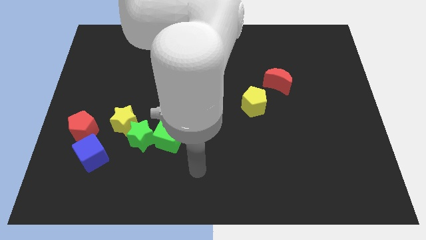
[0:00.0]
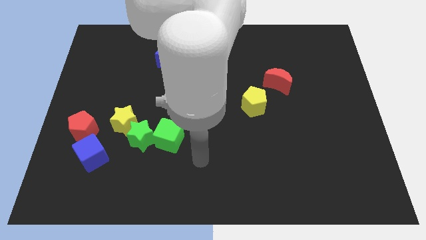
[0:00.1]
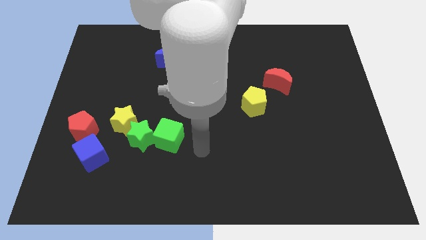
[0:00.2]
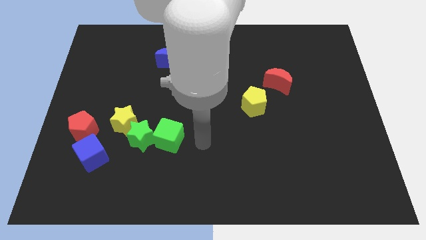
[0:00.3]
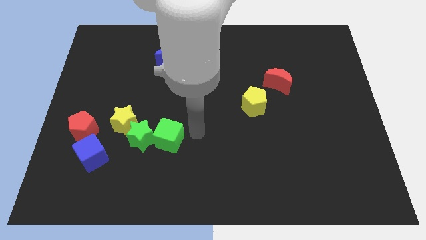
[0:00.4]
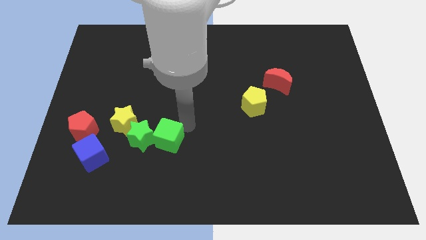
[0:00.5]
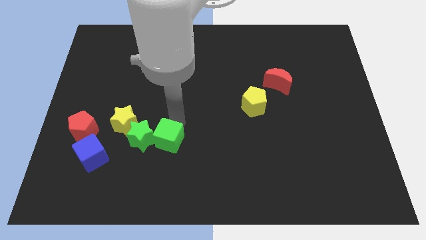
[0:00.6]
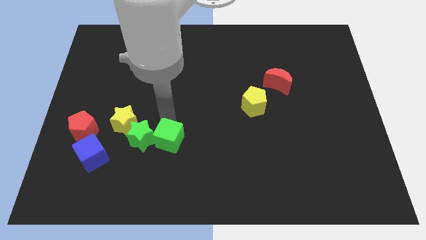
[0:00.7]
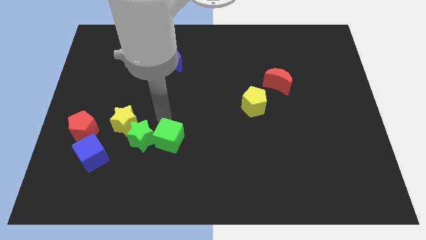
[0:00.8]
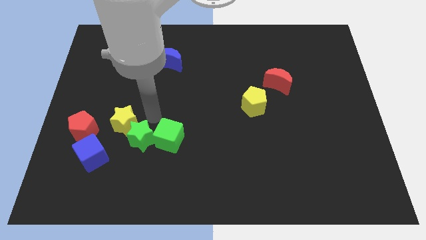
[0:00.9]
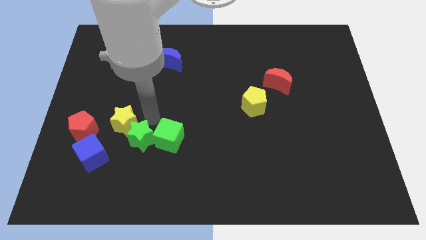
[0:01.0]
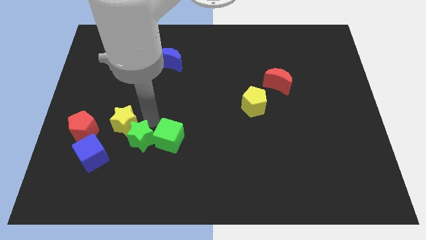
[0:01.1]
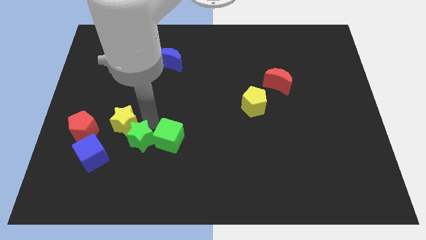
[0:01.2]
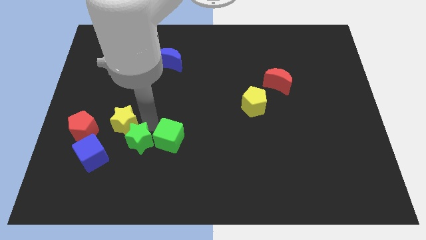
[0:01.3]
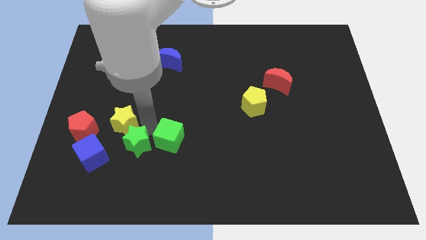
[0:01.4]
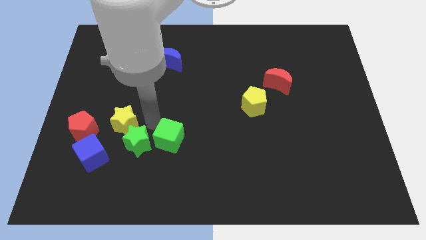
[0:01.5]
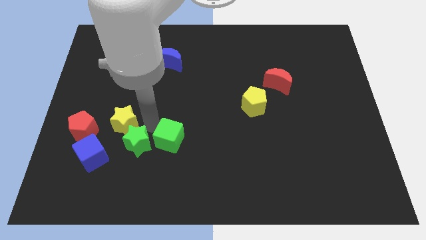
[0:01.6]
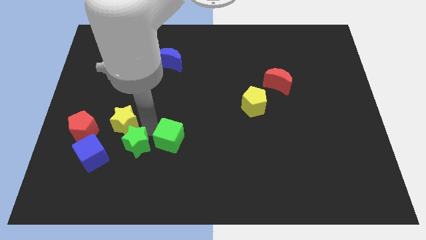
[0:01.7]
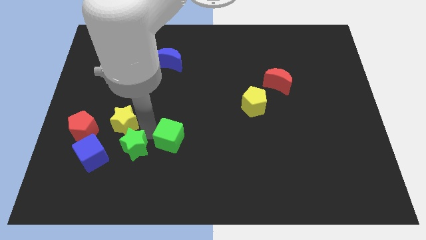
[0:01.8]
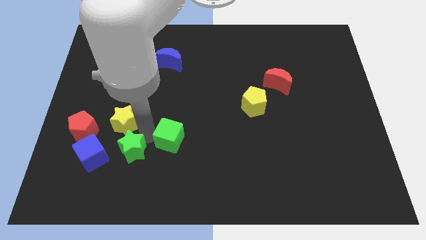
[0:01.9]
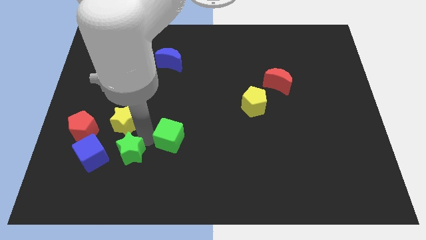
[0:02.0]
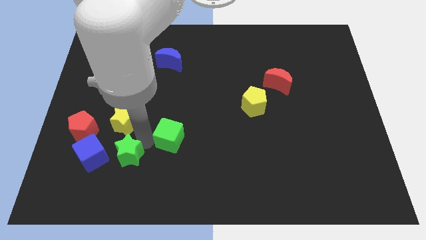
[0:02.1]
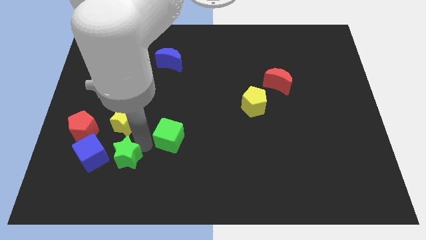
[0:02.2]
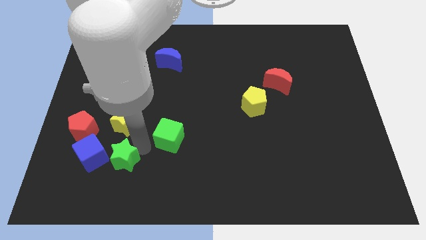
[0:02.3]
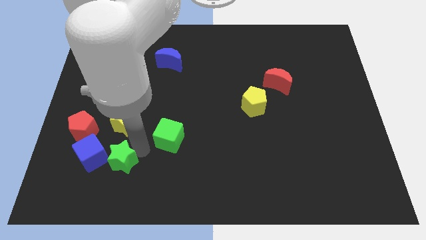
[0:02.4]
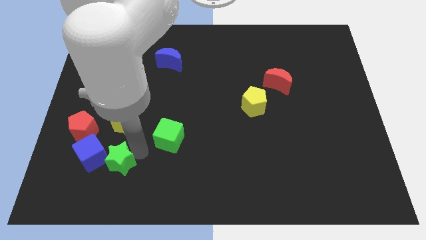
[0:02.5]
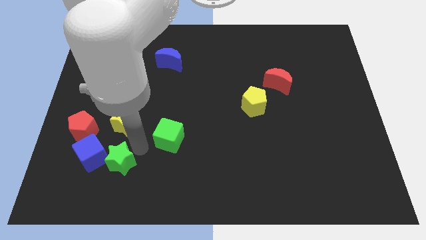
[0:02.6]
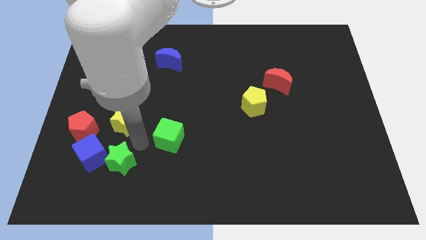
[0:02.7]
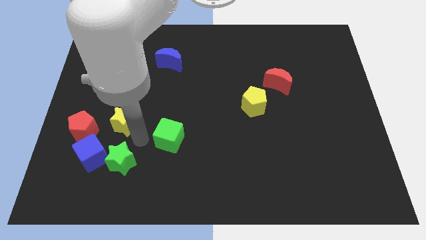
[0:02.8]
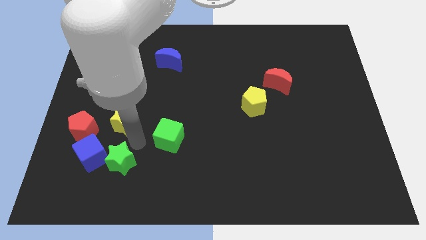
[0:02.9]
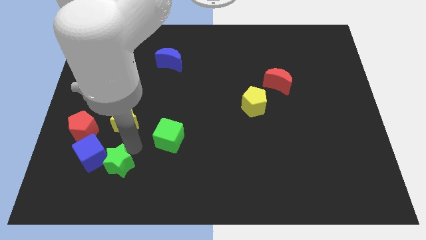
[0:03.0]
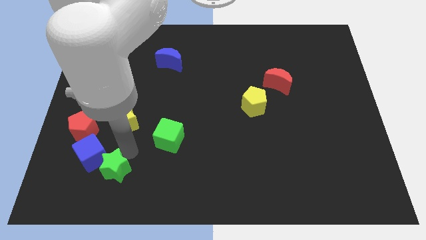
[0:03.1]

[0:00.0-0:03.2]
pull the green star apart from the yellow star and green cube

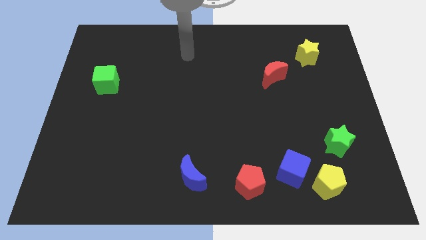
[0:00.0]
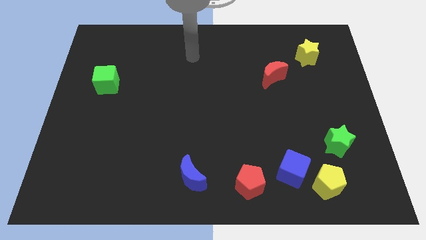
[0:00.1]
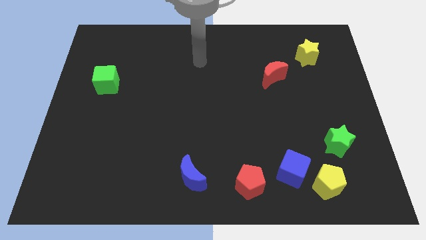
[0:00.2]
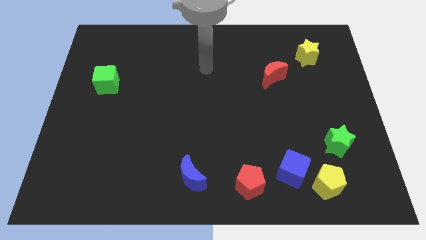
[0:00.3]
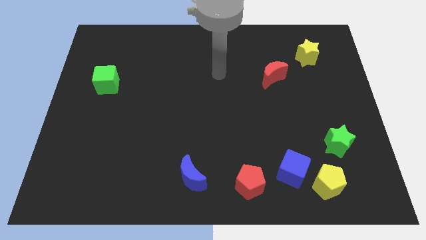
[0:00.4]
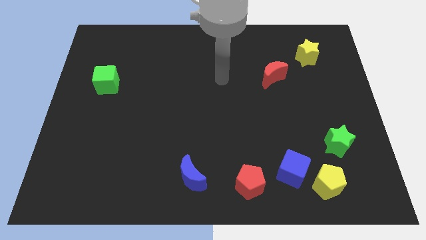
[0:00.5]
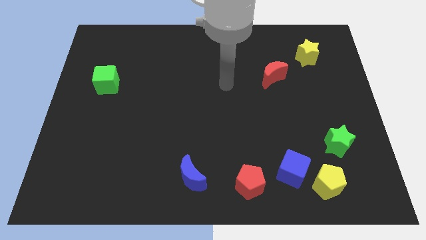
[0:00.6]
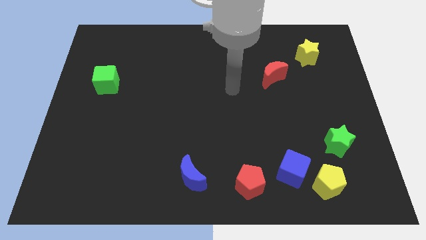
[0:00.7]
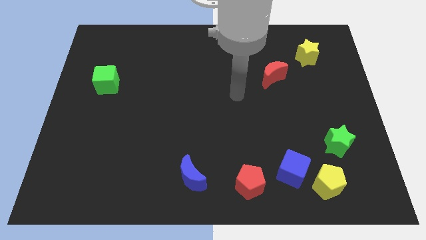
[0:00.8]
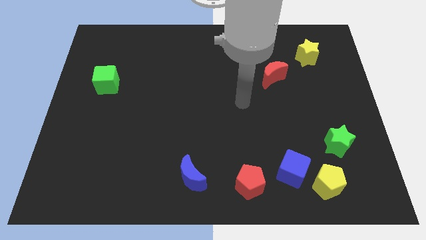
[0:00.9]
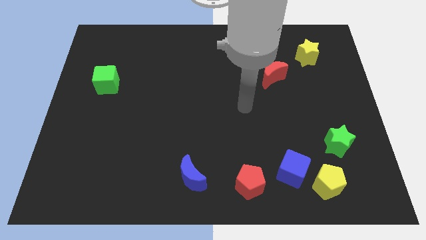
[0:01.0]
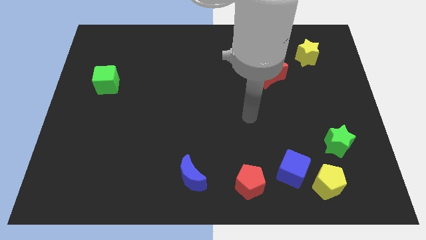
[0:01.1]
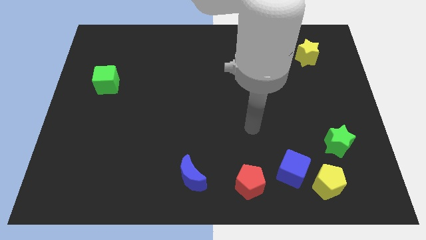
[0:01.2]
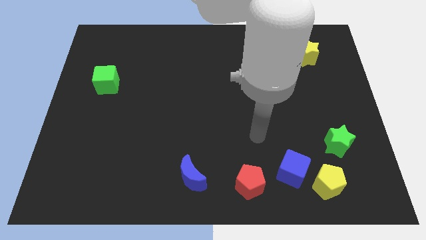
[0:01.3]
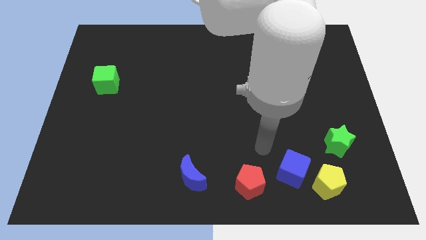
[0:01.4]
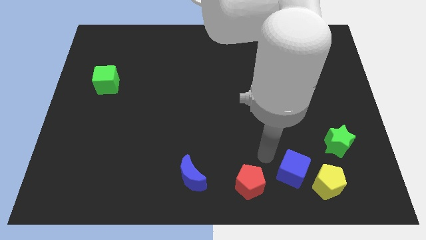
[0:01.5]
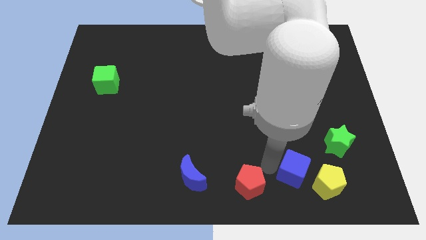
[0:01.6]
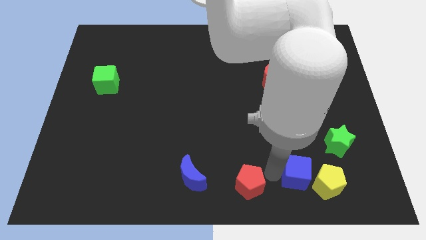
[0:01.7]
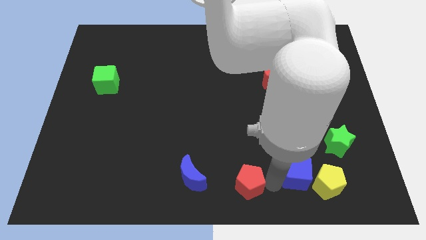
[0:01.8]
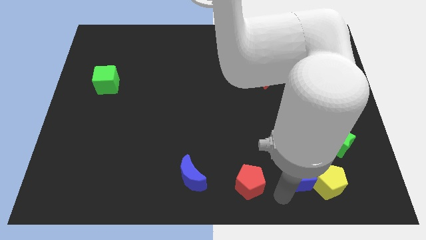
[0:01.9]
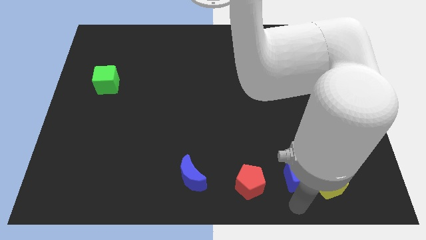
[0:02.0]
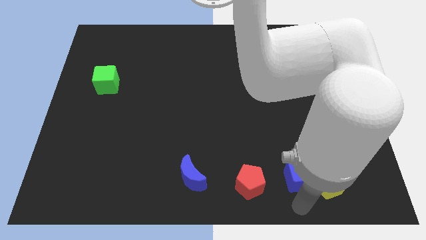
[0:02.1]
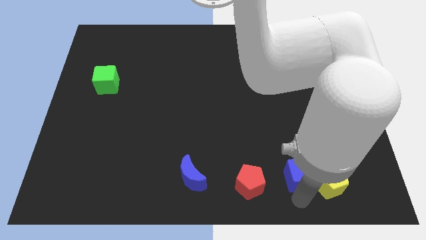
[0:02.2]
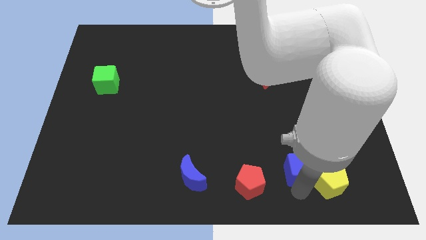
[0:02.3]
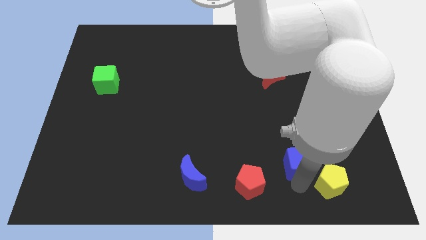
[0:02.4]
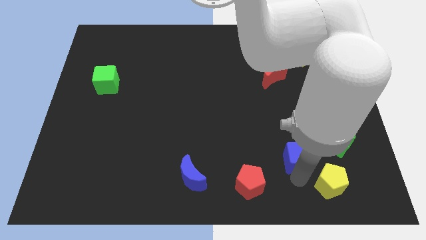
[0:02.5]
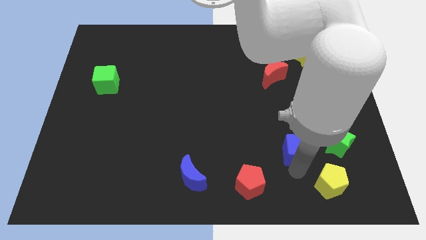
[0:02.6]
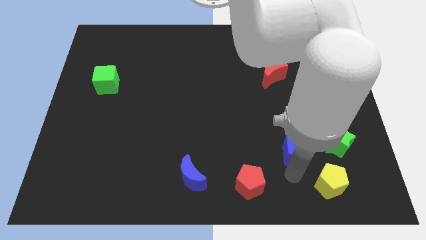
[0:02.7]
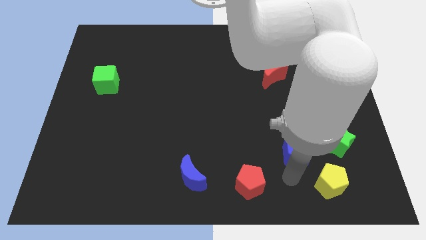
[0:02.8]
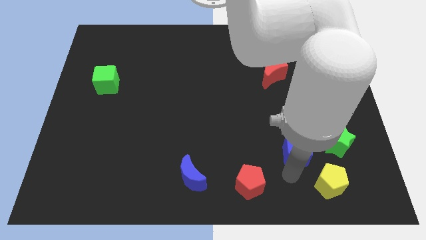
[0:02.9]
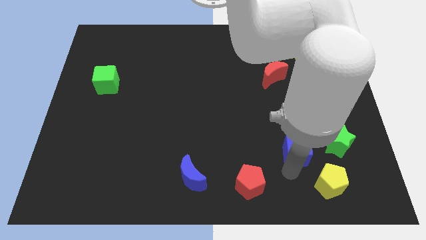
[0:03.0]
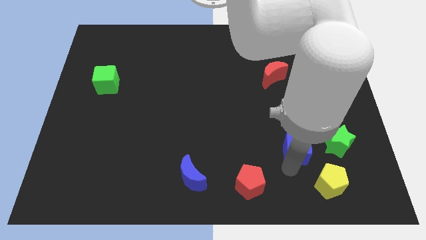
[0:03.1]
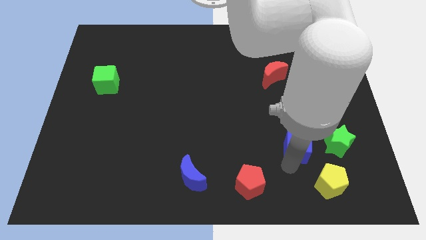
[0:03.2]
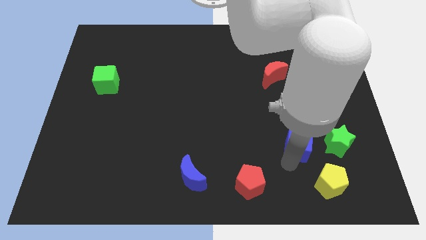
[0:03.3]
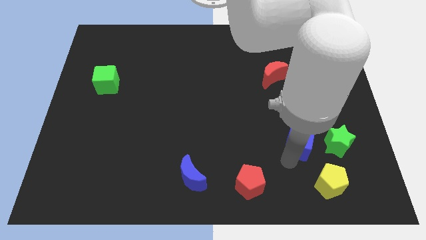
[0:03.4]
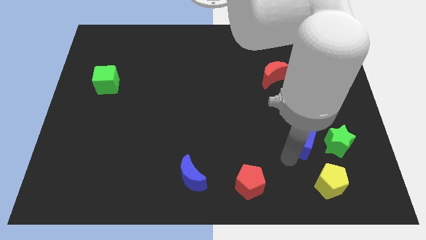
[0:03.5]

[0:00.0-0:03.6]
pull the blue cube apart from the yellow pentagon and red pentagon

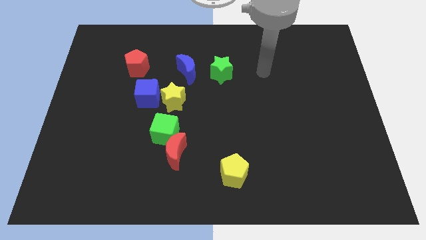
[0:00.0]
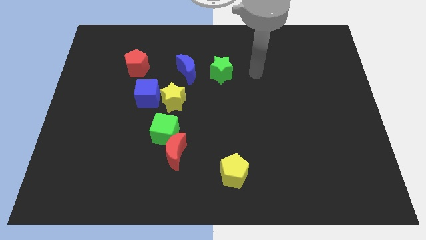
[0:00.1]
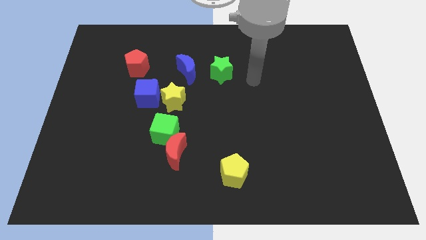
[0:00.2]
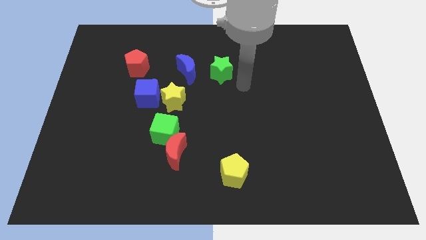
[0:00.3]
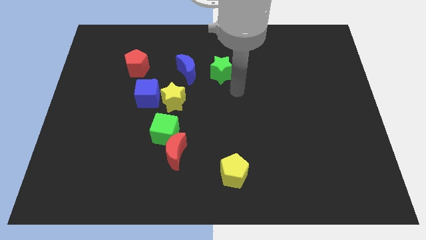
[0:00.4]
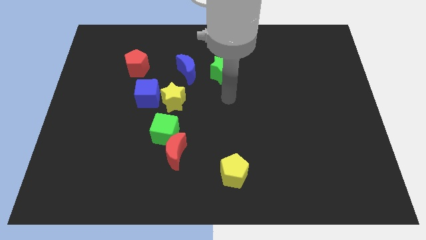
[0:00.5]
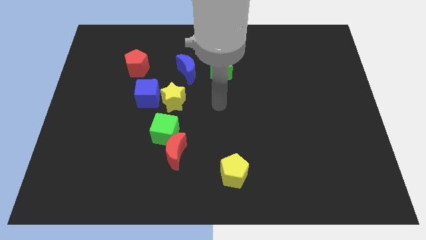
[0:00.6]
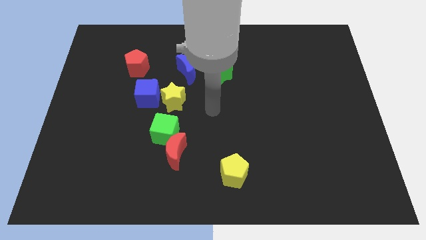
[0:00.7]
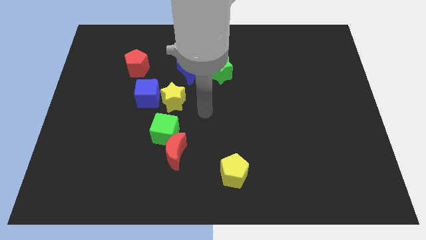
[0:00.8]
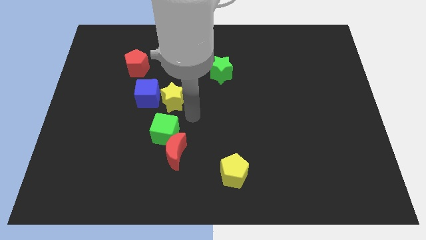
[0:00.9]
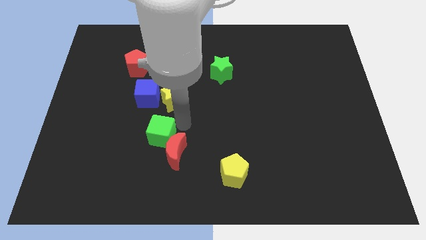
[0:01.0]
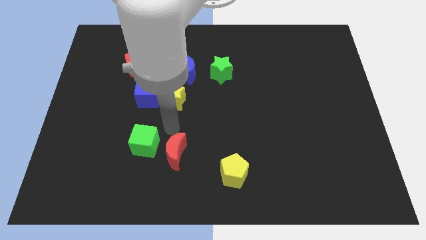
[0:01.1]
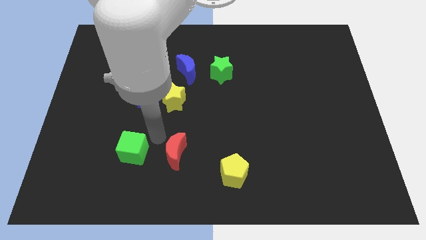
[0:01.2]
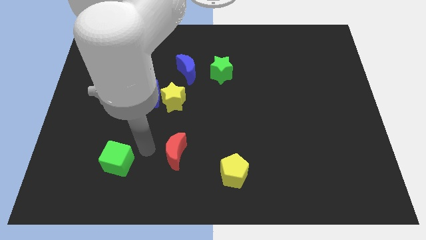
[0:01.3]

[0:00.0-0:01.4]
move the red moon away from the green cube

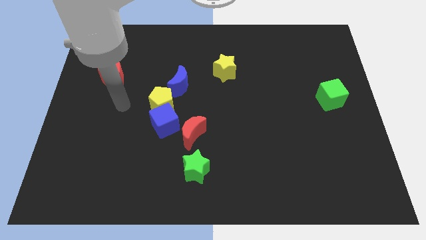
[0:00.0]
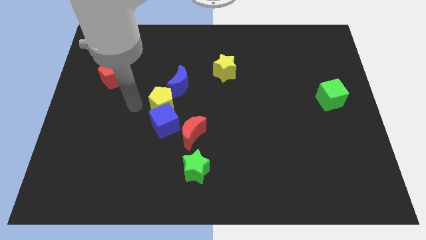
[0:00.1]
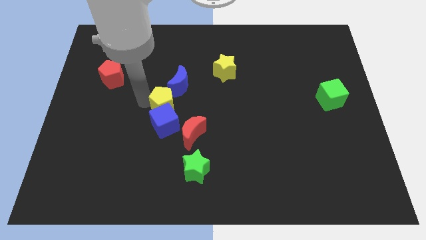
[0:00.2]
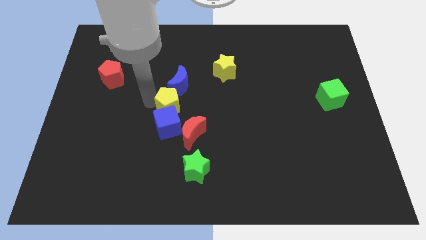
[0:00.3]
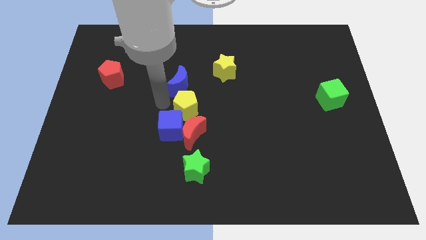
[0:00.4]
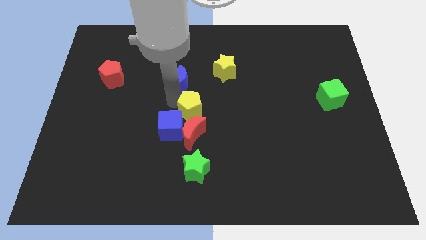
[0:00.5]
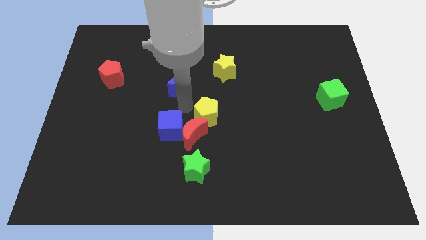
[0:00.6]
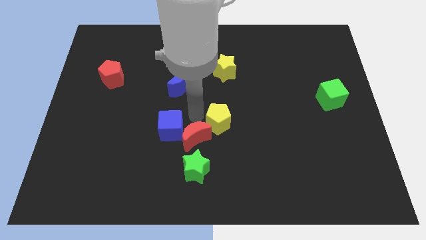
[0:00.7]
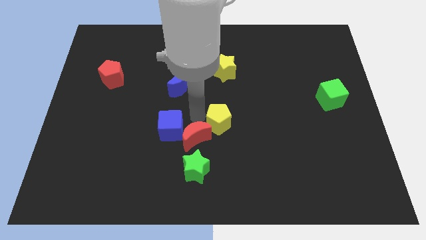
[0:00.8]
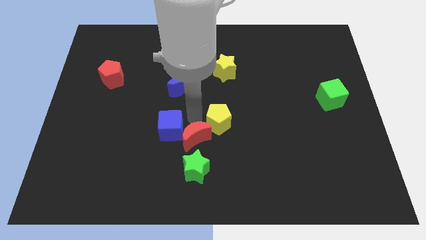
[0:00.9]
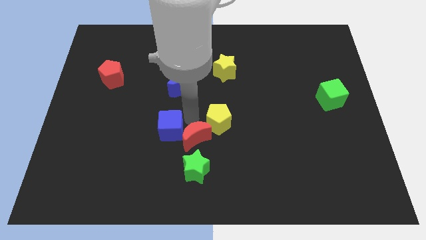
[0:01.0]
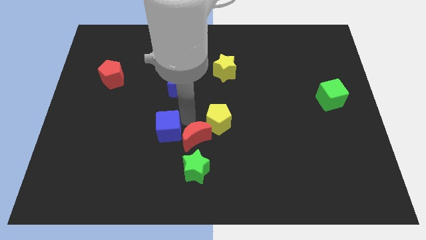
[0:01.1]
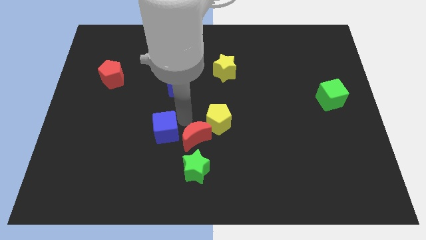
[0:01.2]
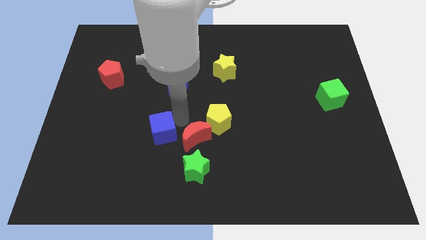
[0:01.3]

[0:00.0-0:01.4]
pull the blue cube apart from the yellow pentagon and red moon
